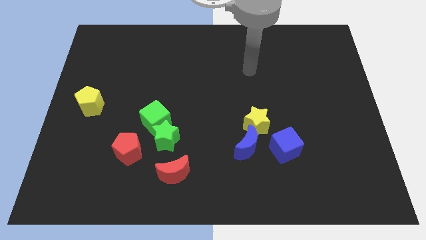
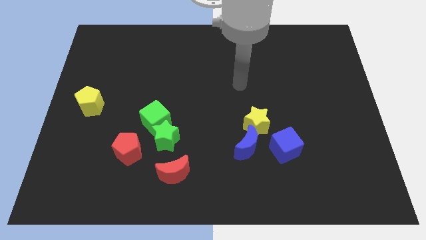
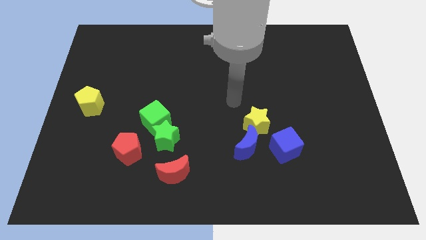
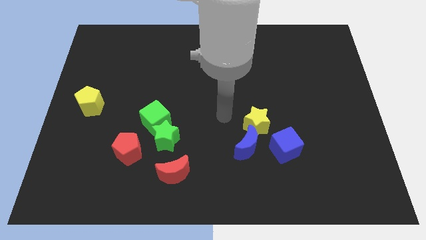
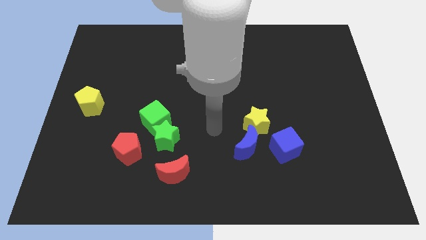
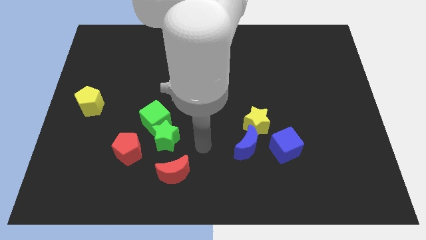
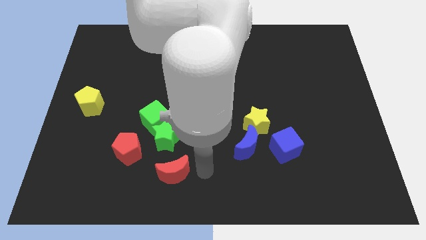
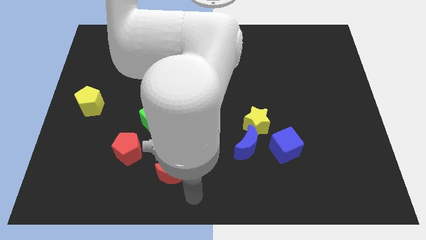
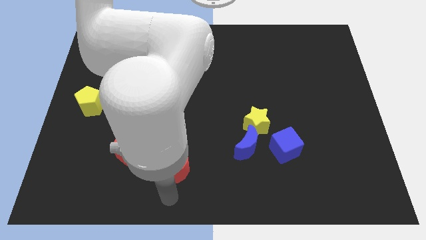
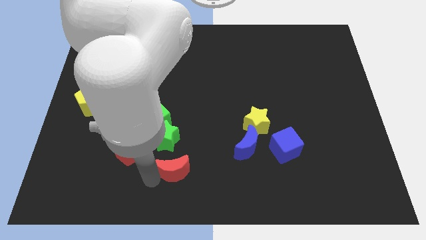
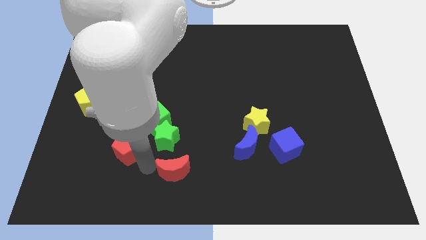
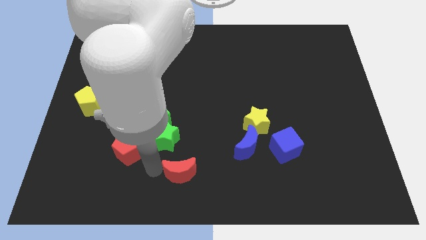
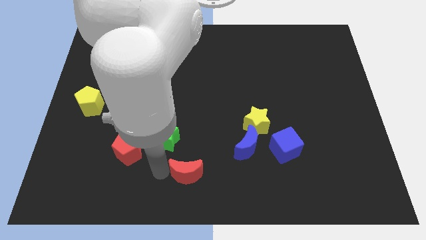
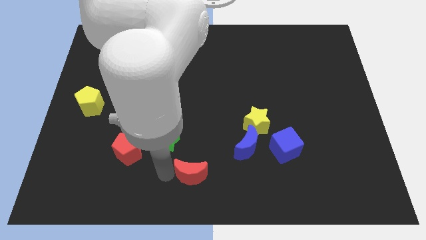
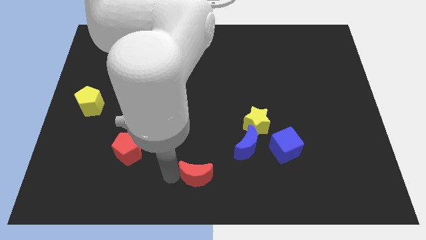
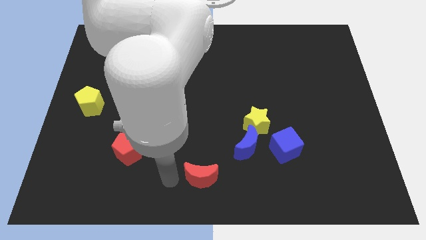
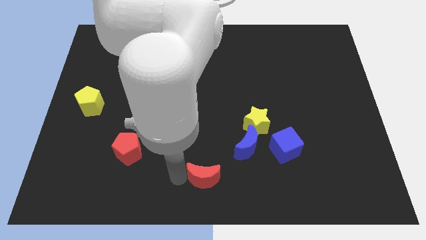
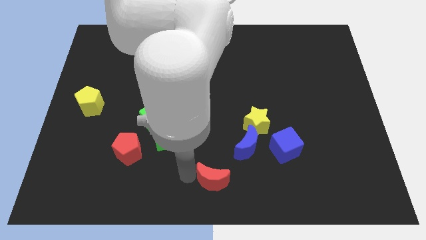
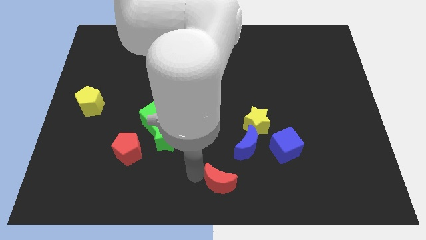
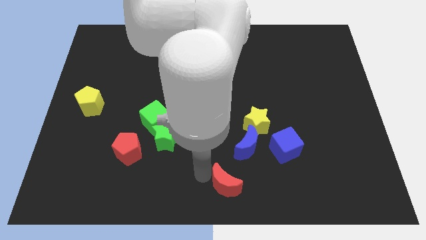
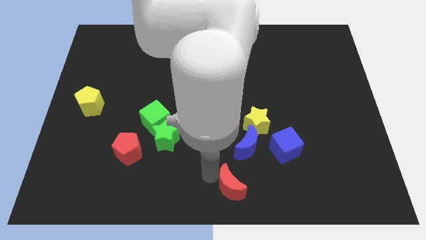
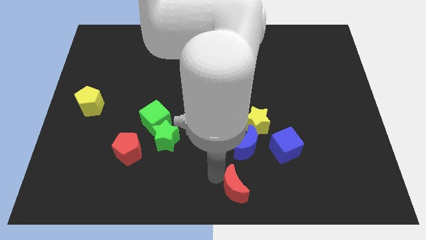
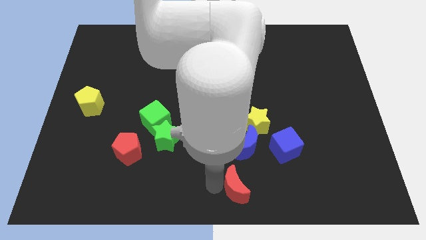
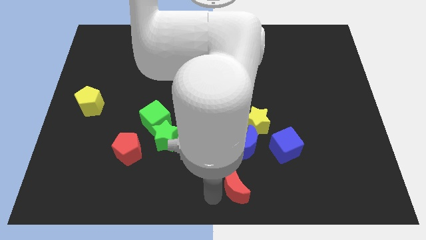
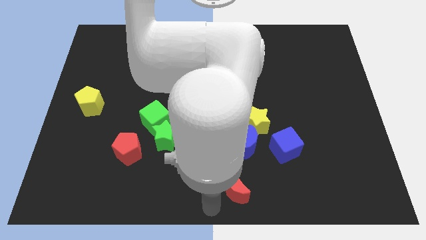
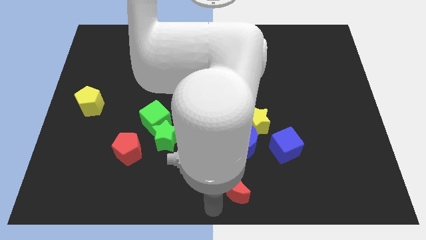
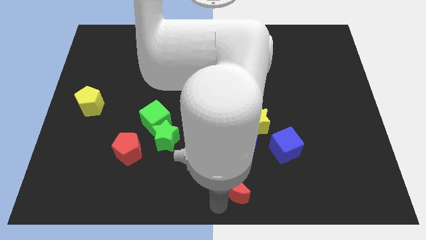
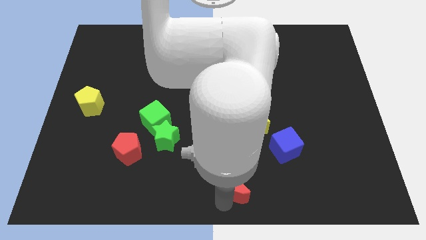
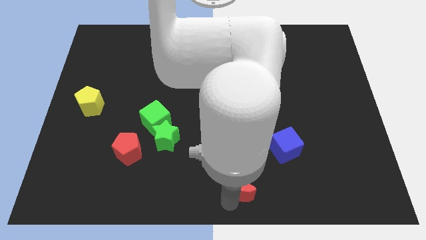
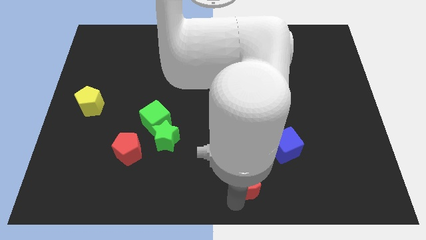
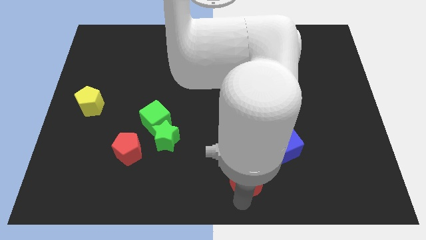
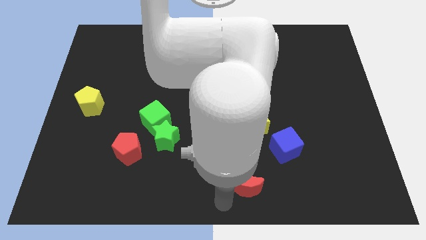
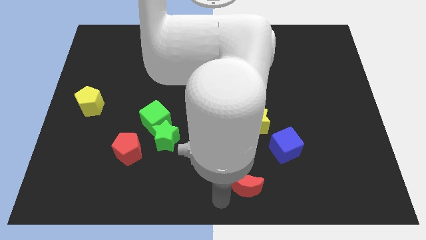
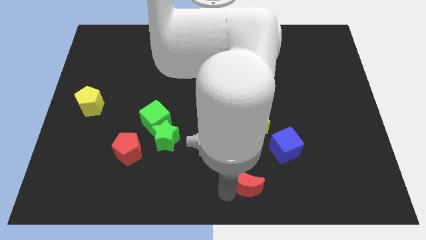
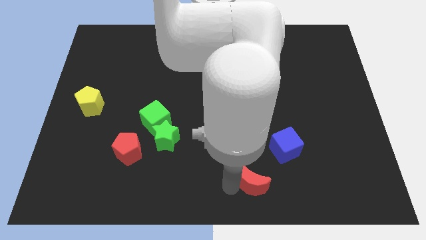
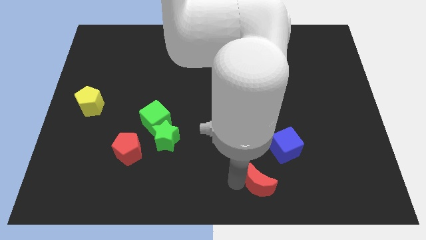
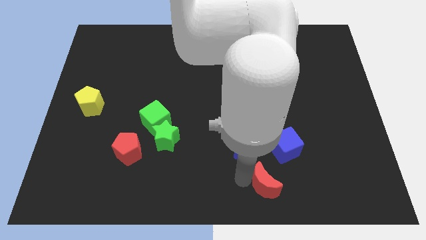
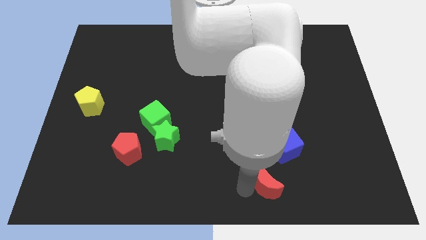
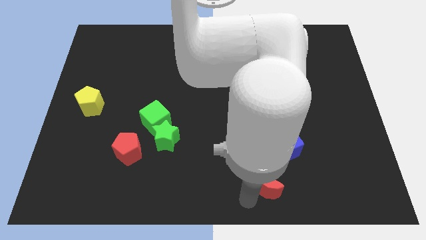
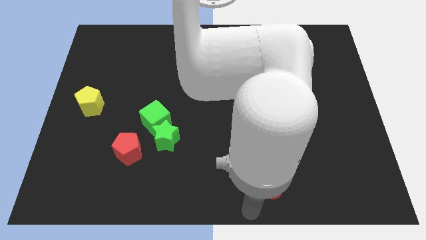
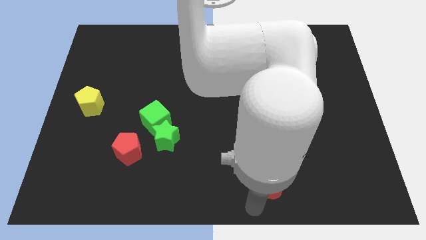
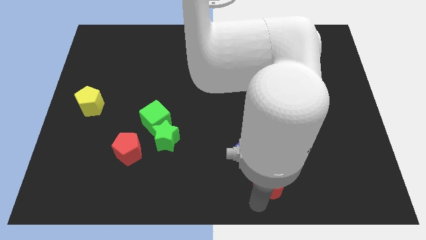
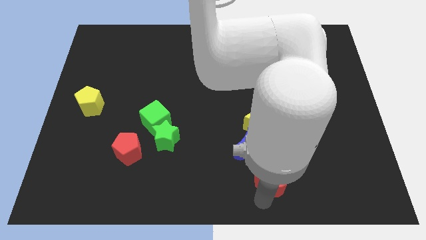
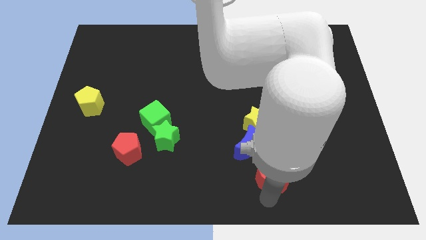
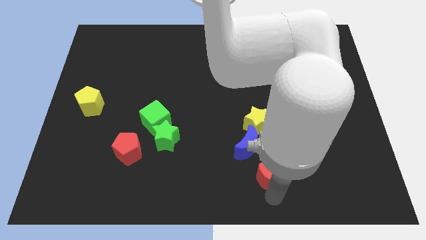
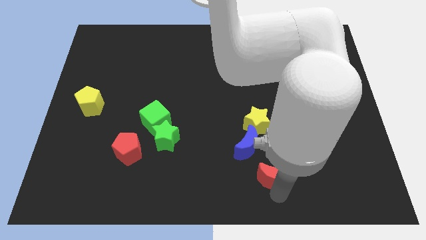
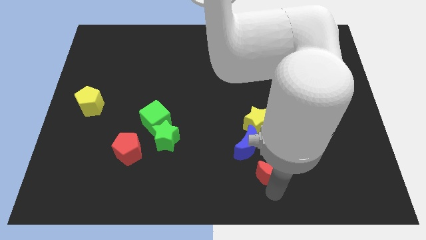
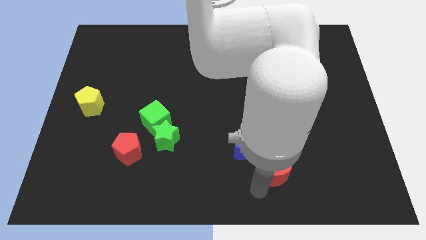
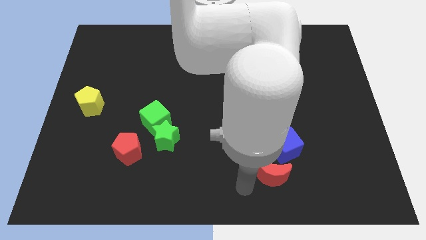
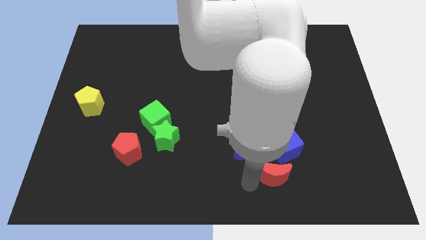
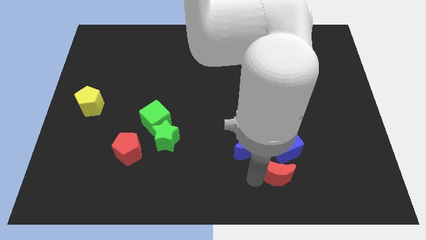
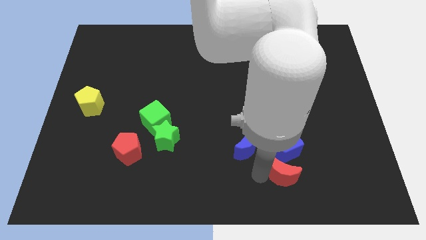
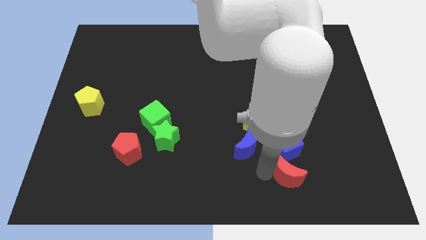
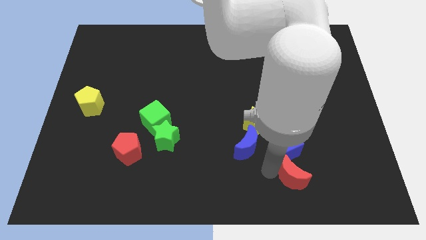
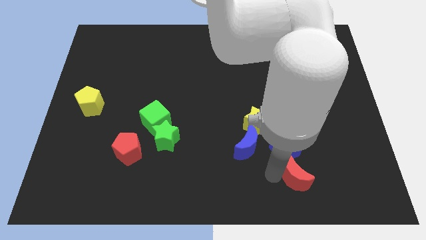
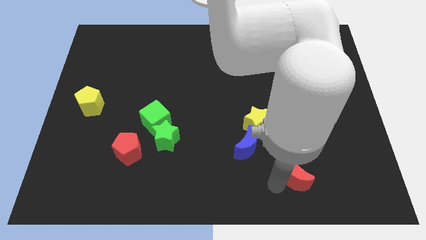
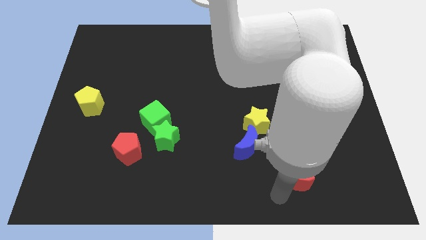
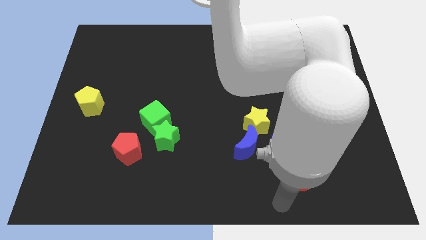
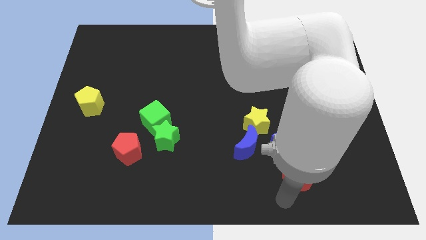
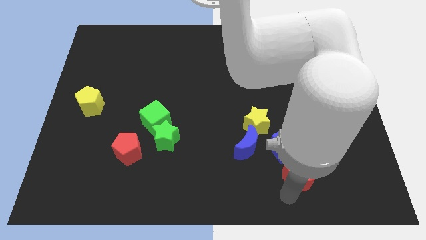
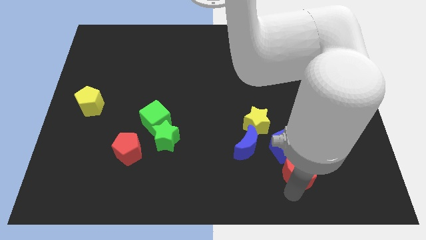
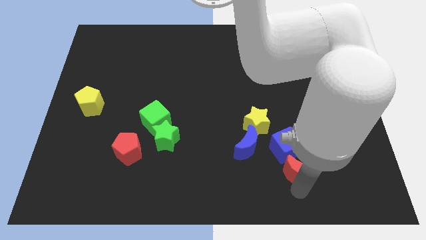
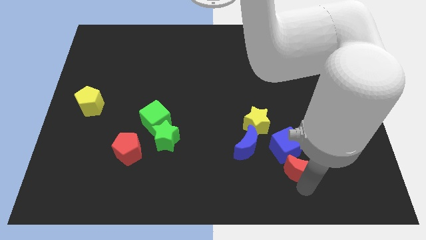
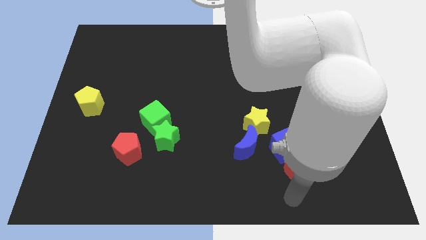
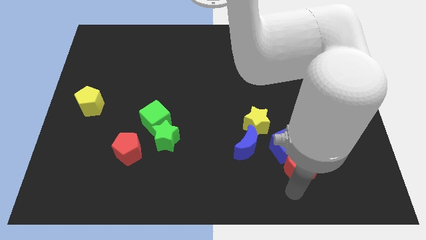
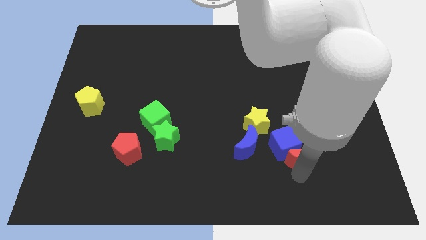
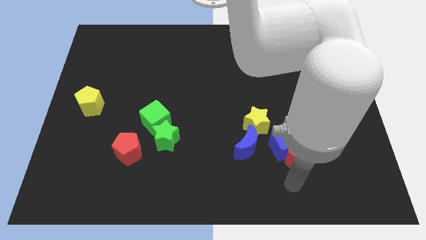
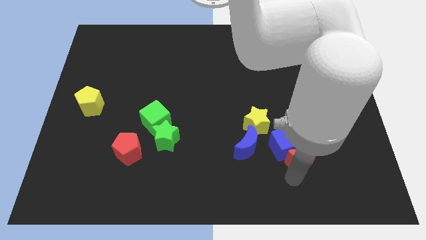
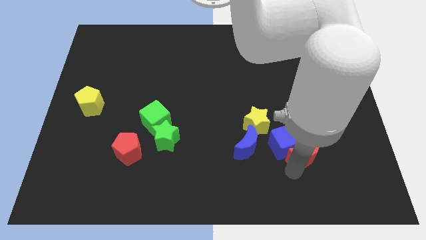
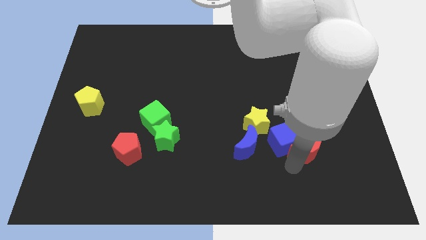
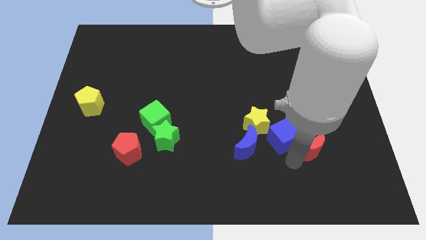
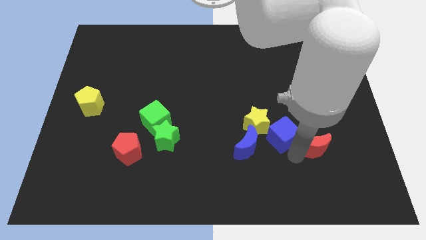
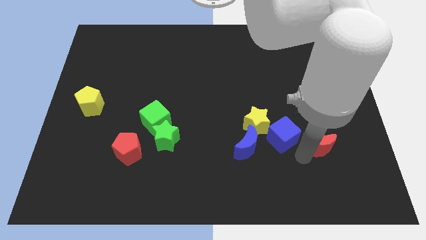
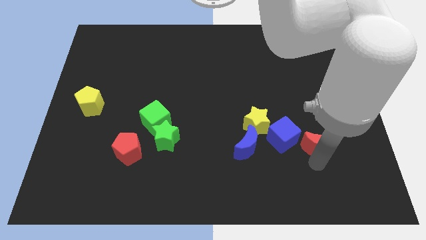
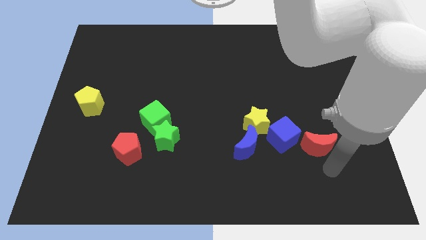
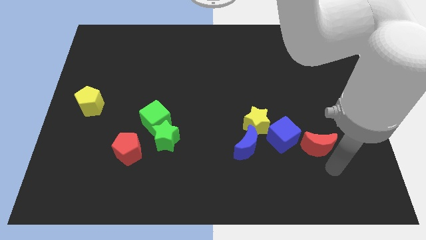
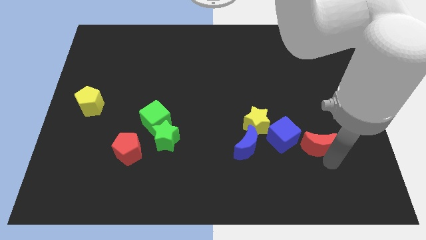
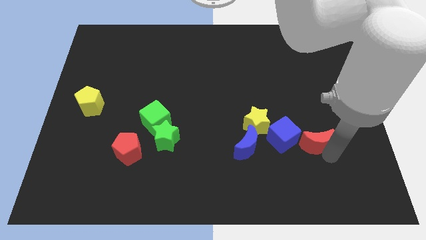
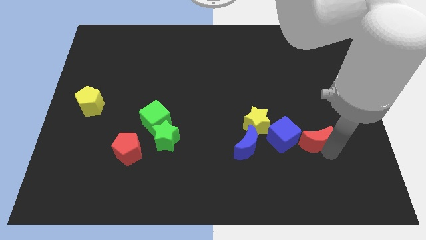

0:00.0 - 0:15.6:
slide the red moon right of the yellow star
